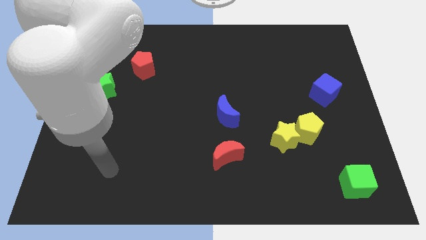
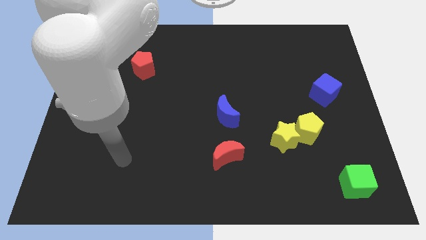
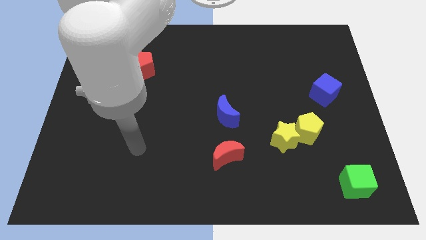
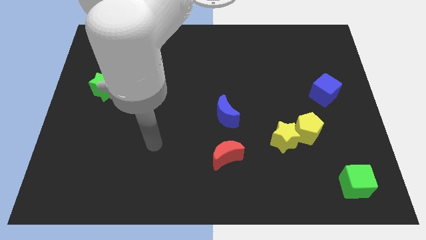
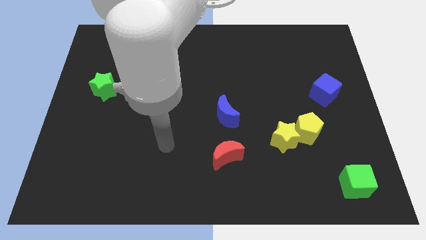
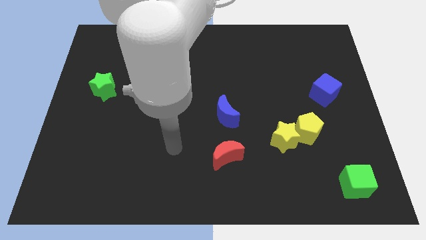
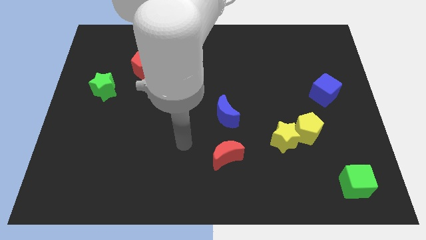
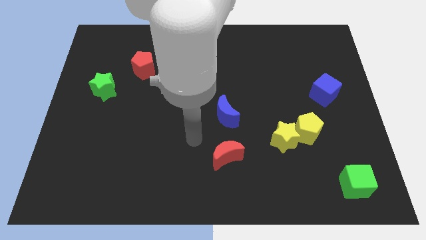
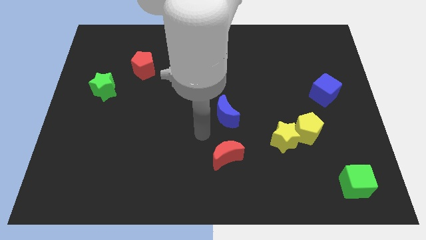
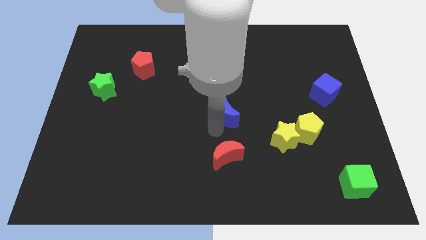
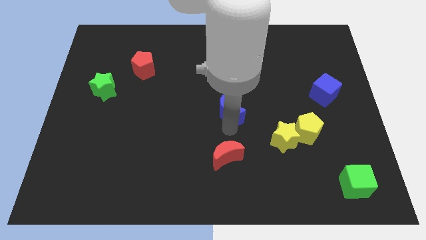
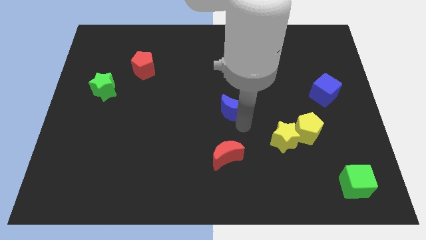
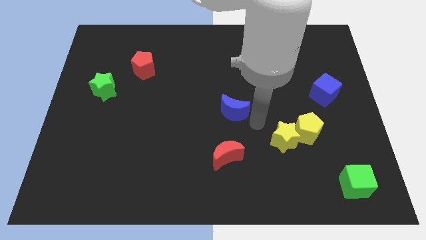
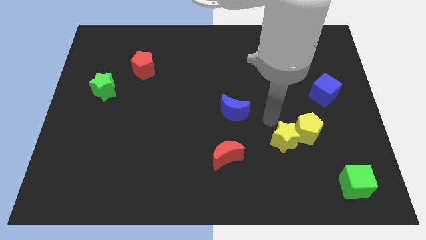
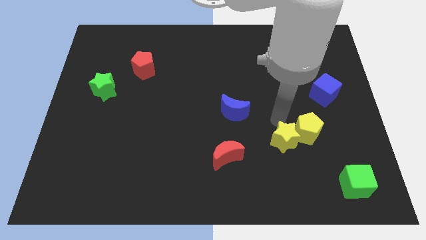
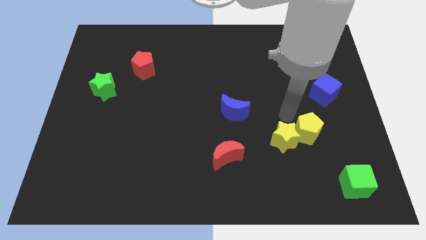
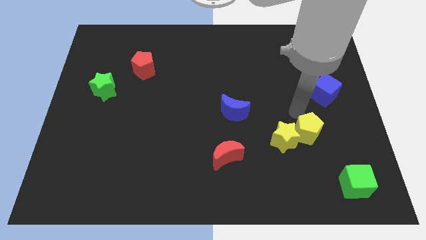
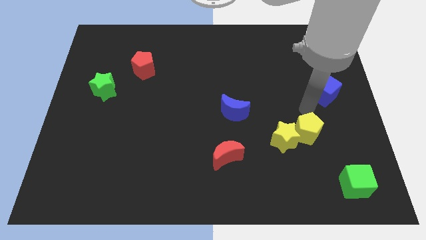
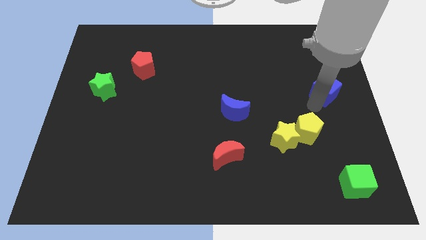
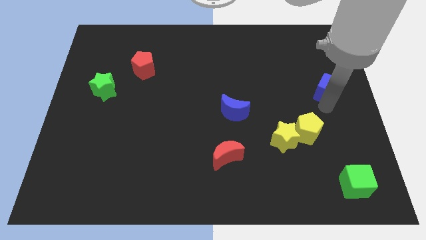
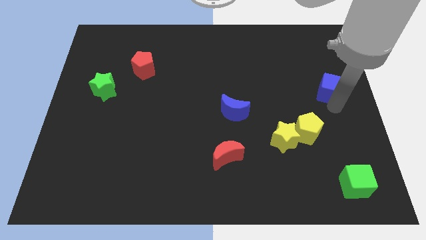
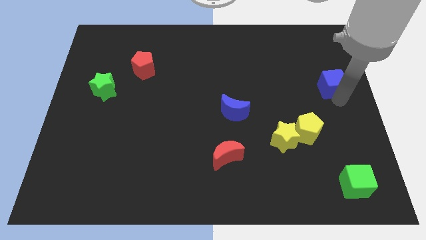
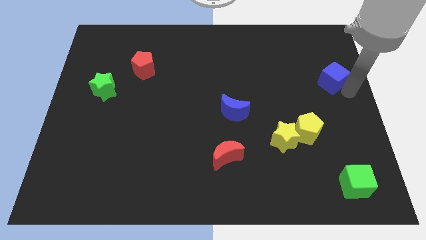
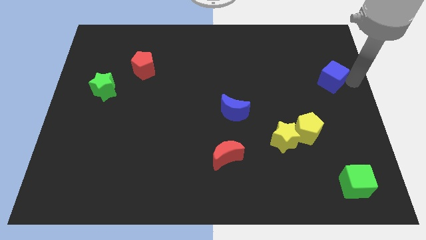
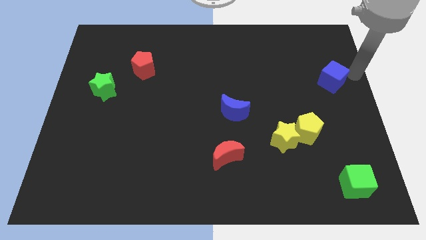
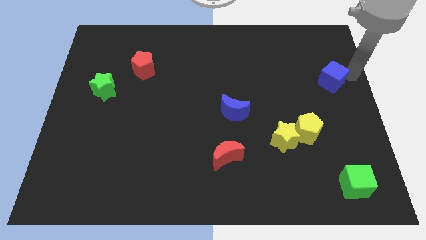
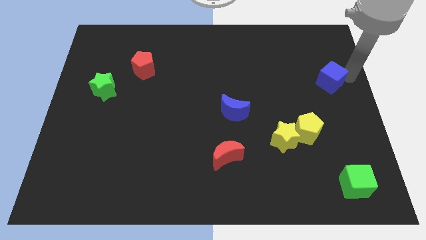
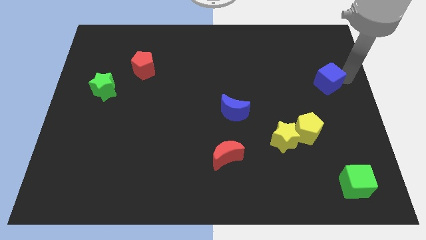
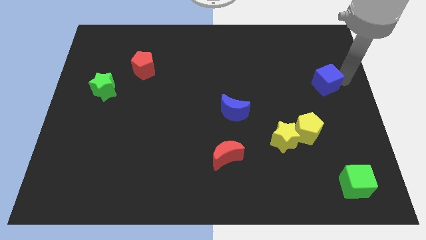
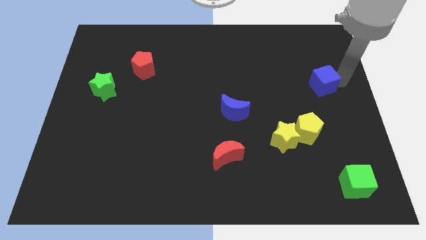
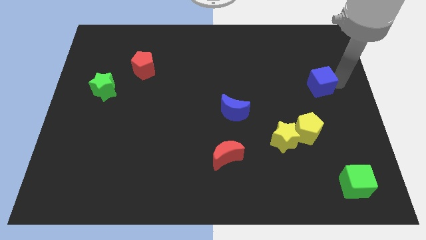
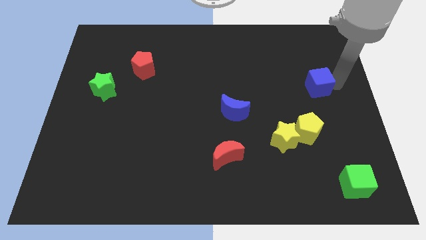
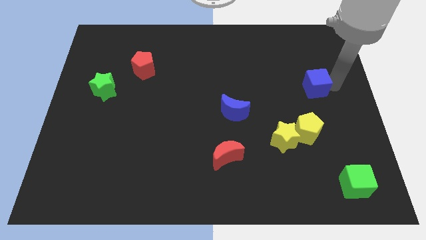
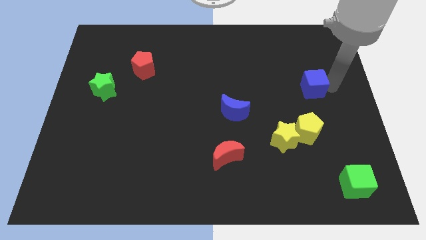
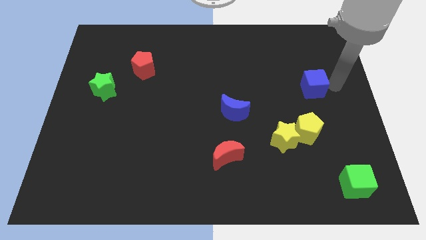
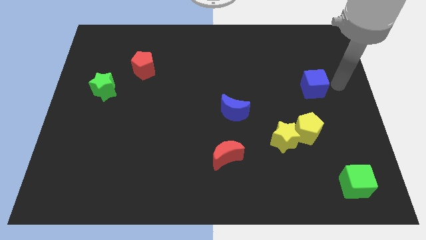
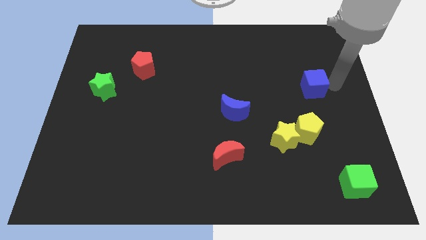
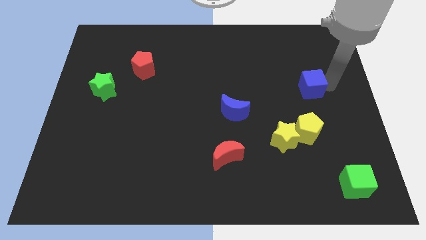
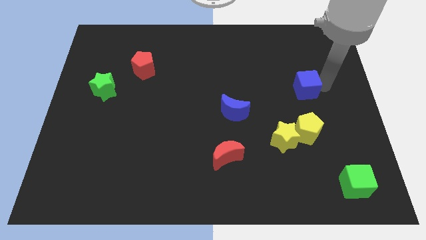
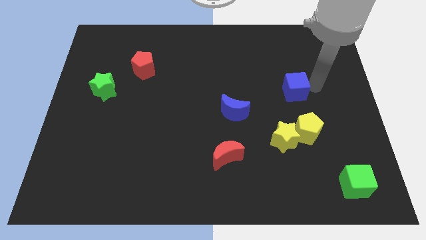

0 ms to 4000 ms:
slightly push the blue cube to the left

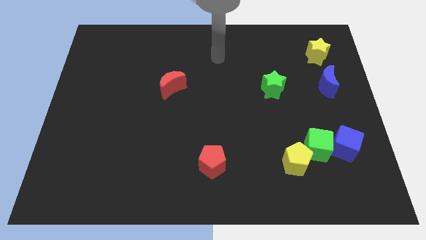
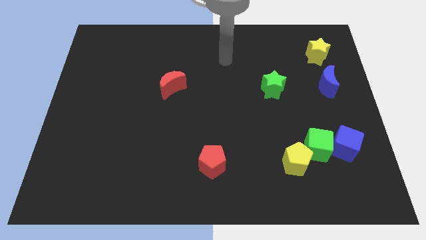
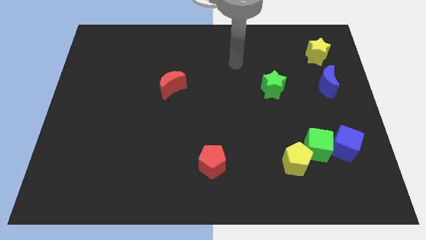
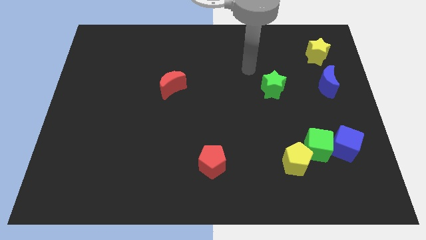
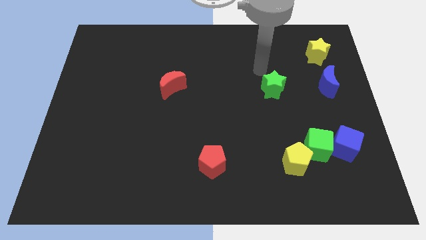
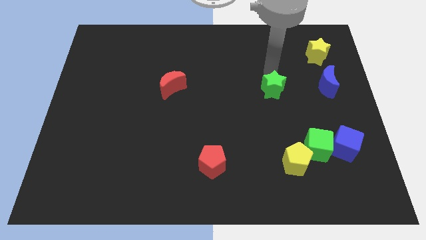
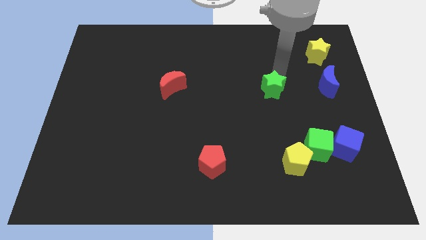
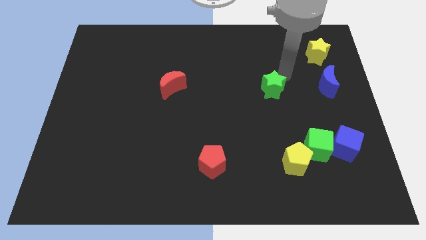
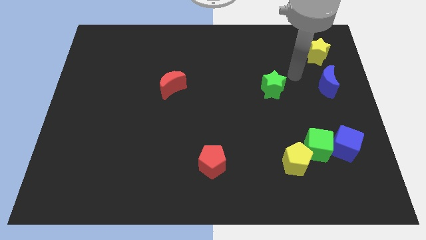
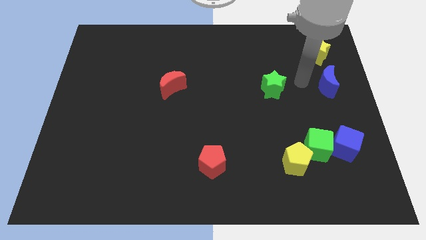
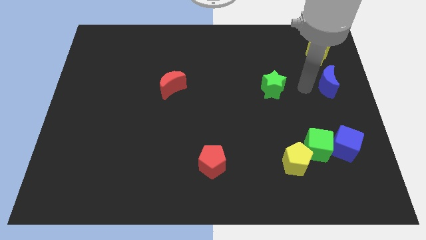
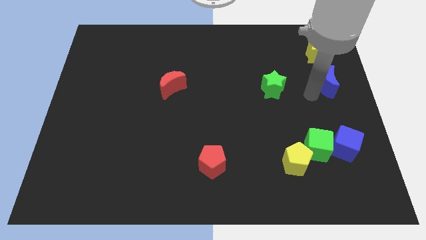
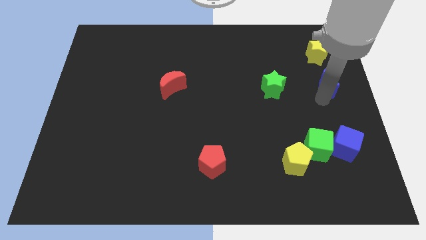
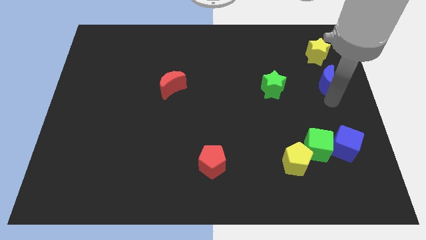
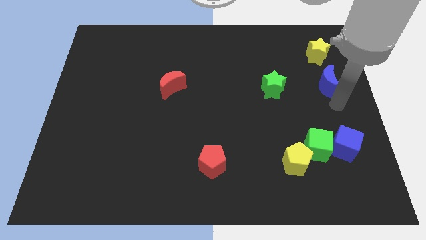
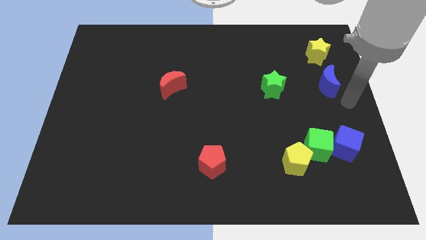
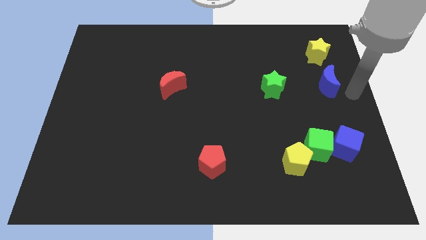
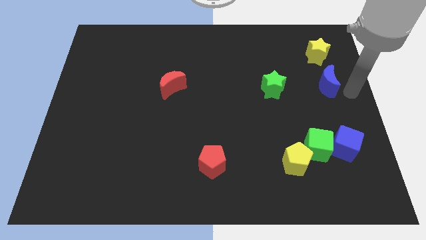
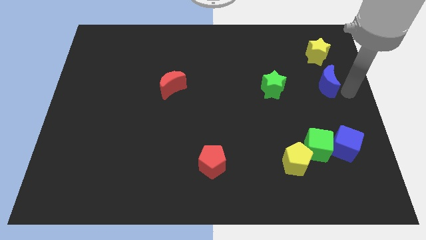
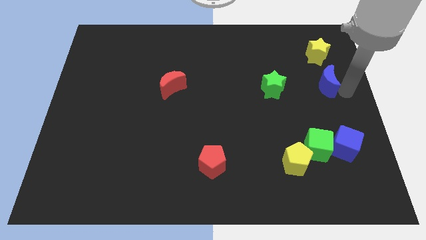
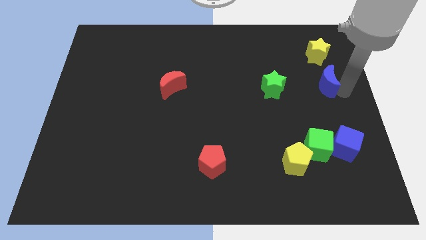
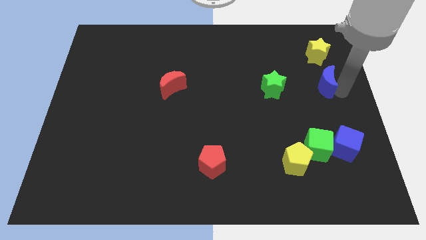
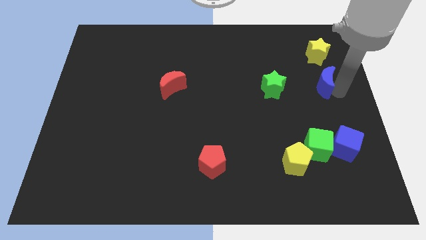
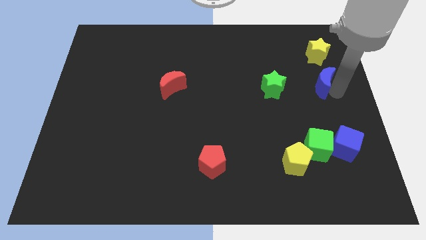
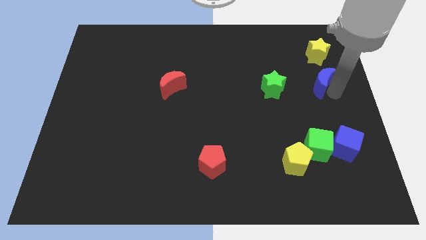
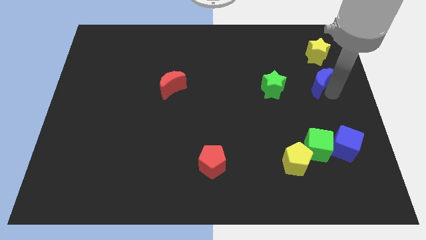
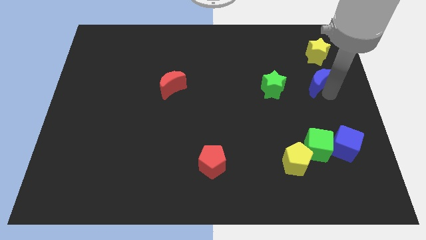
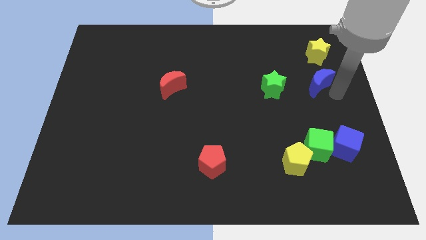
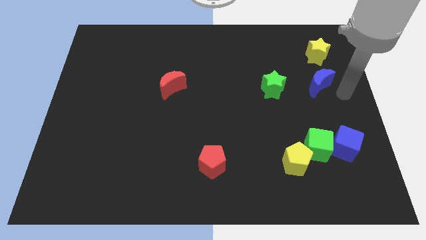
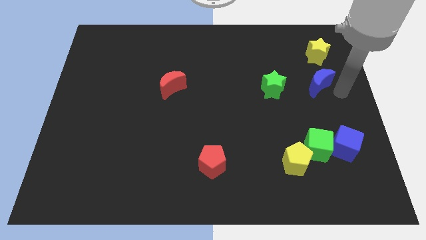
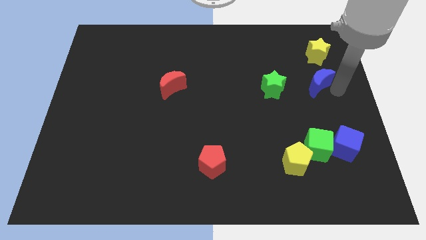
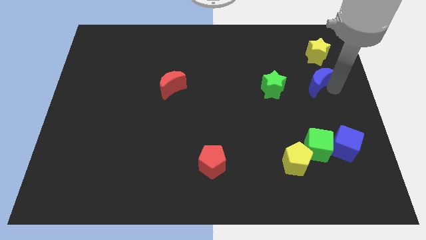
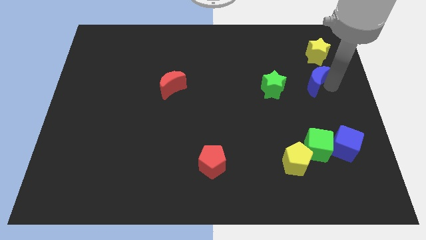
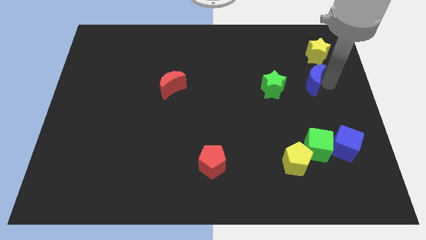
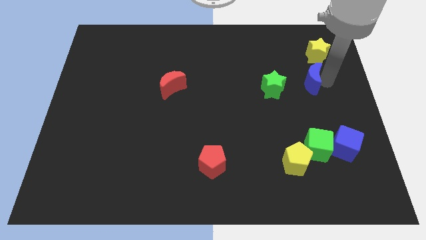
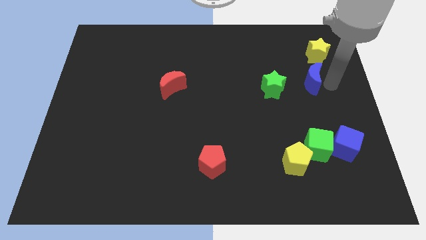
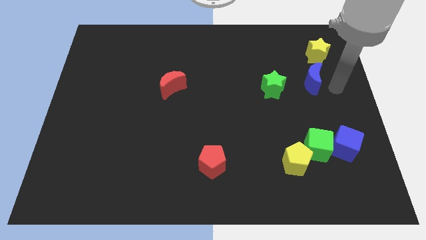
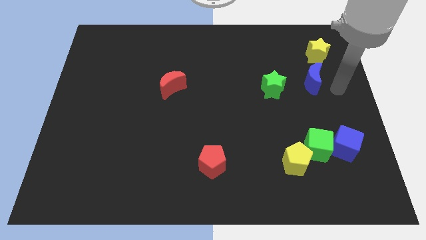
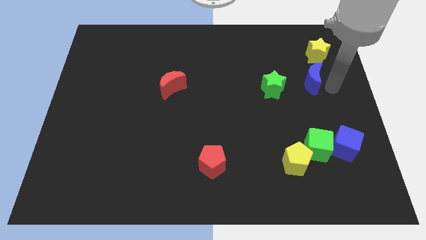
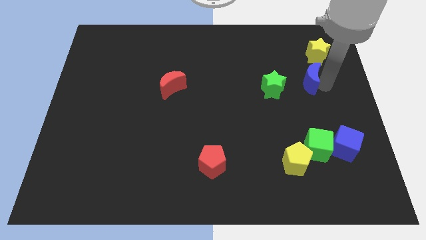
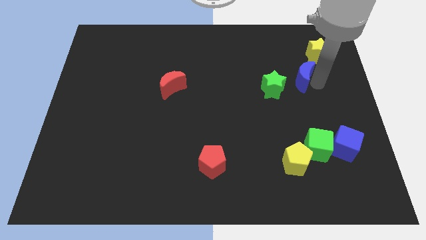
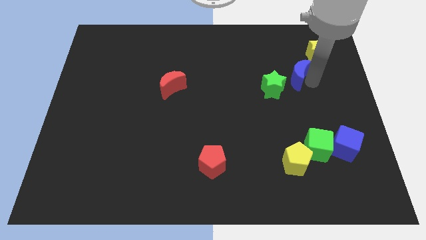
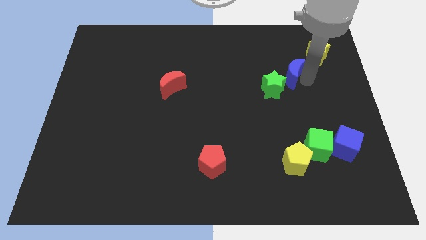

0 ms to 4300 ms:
move the blue moon left a bit

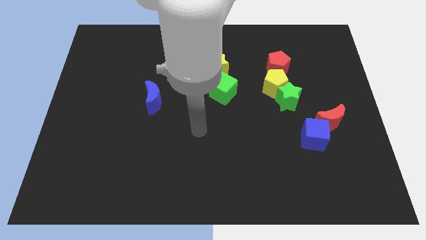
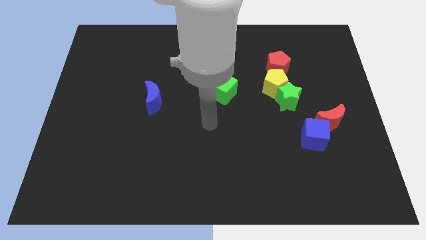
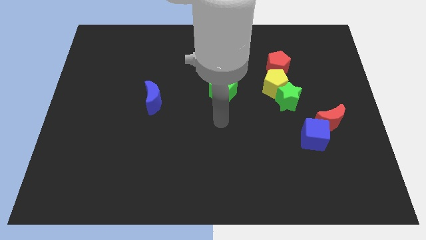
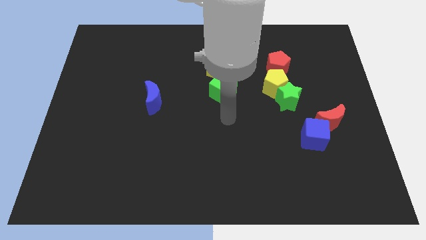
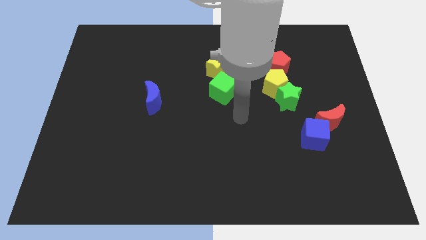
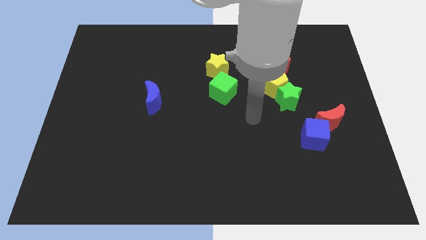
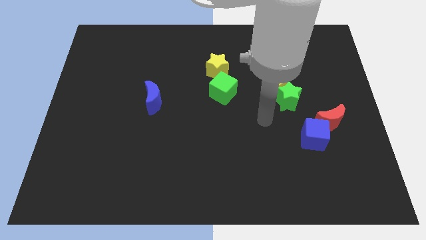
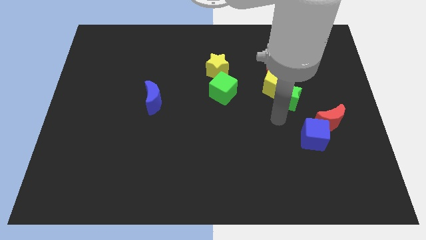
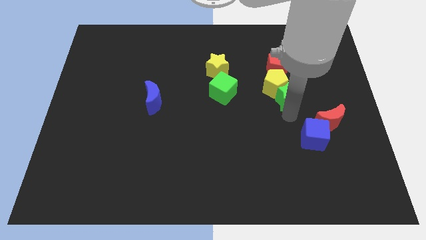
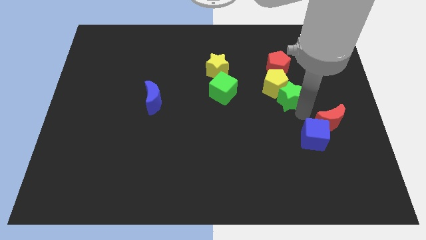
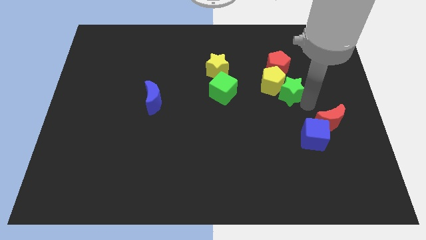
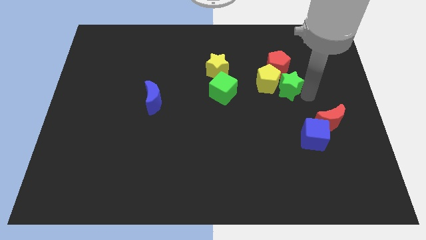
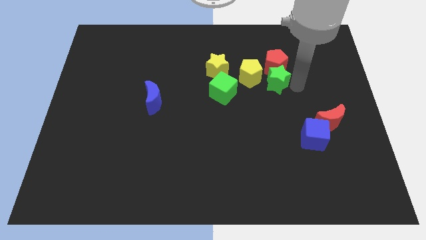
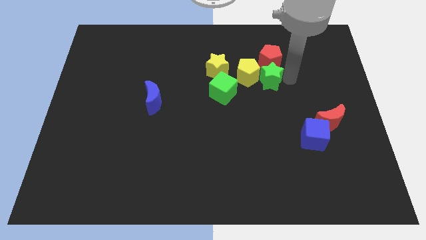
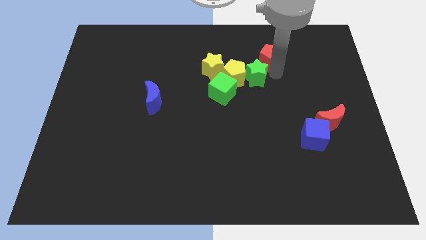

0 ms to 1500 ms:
move the yellow pentagon to the left a little
